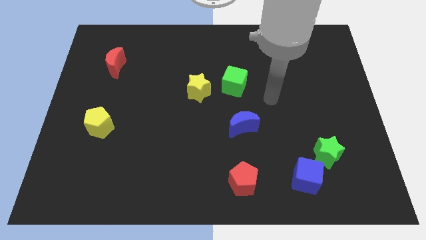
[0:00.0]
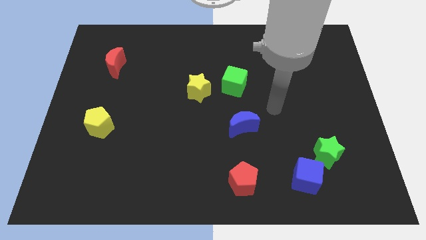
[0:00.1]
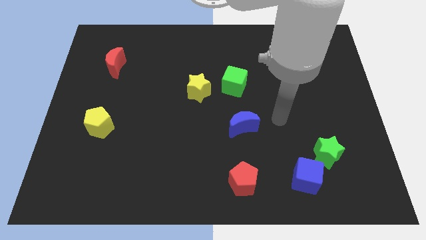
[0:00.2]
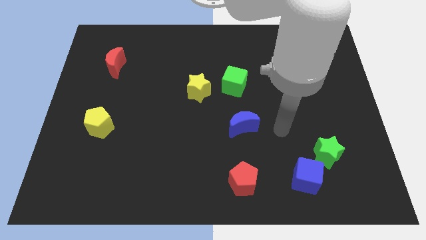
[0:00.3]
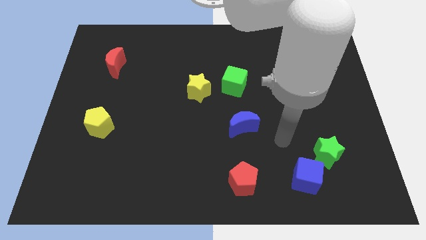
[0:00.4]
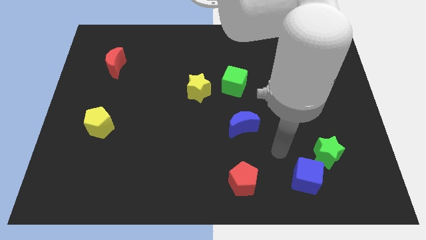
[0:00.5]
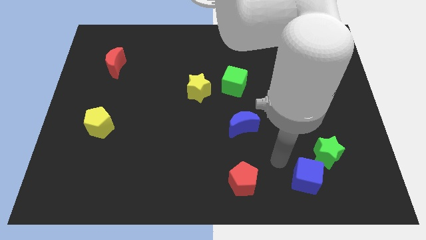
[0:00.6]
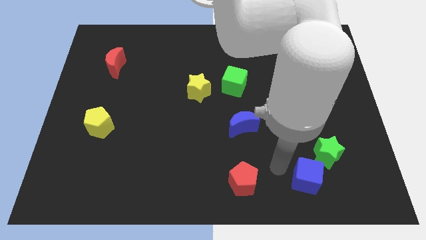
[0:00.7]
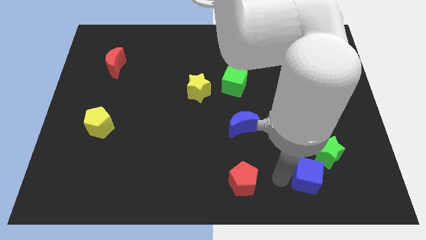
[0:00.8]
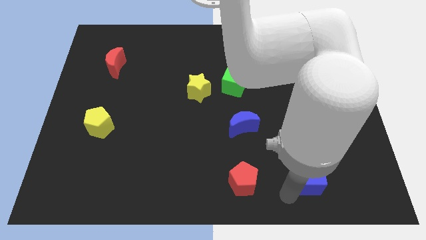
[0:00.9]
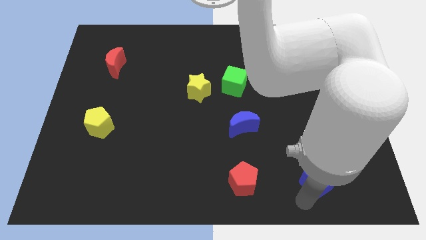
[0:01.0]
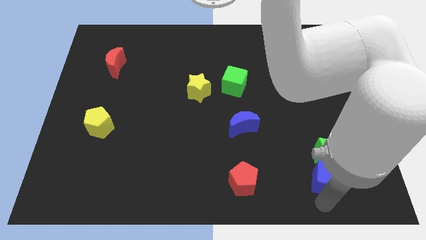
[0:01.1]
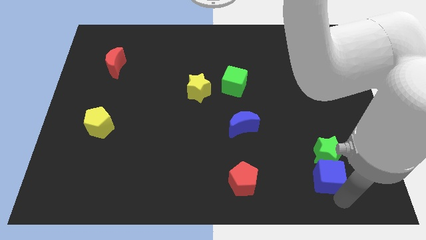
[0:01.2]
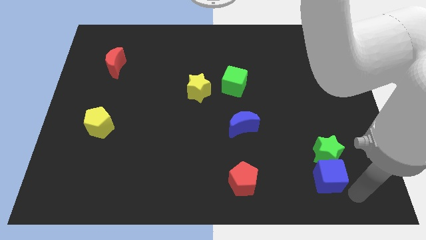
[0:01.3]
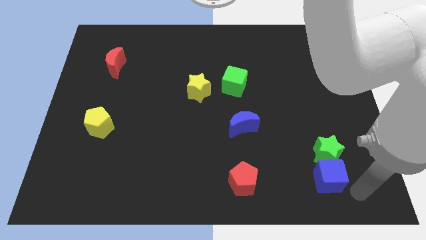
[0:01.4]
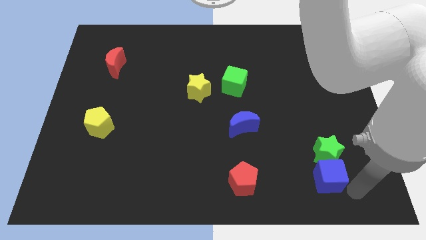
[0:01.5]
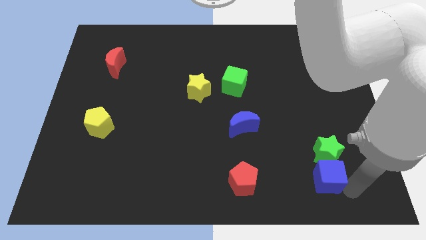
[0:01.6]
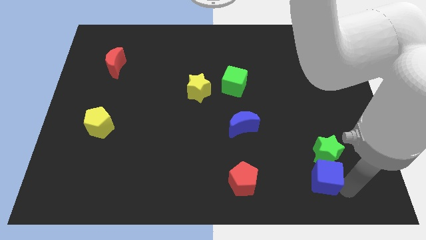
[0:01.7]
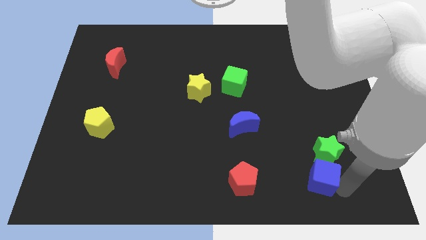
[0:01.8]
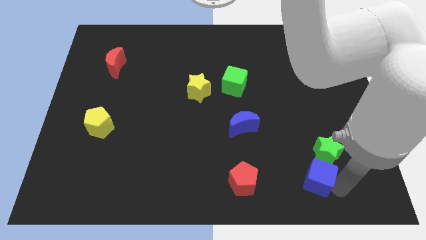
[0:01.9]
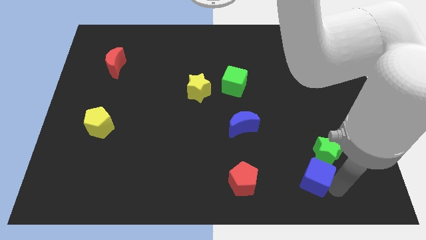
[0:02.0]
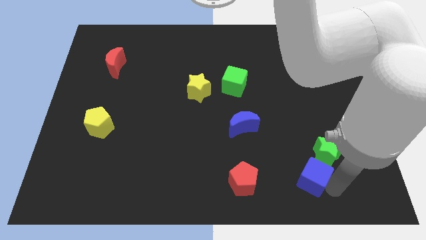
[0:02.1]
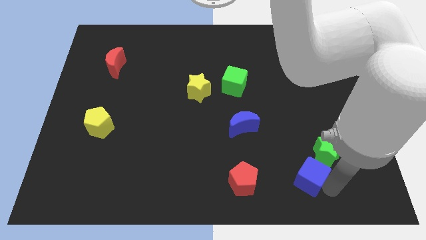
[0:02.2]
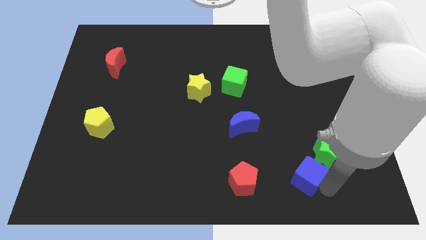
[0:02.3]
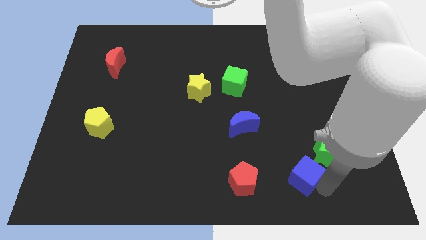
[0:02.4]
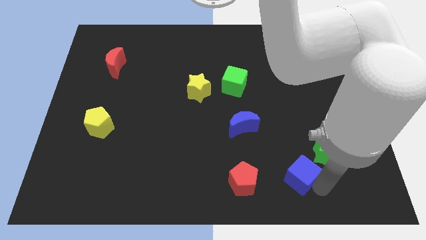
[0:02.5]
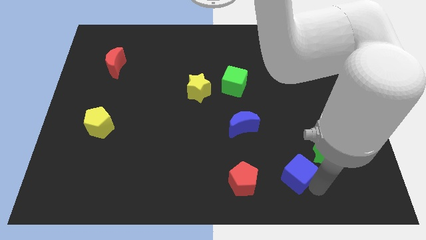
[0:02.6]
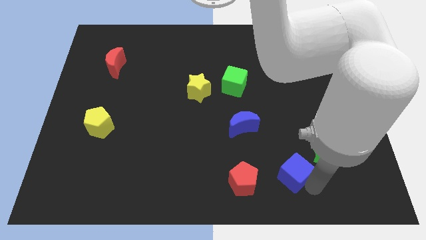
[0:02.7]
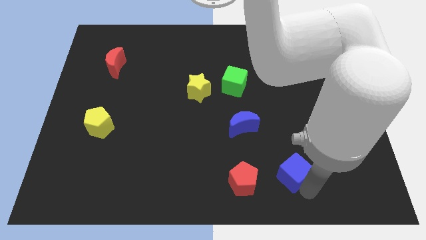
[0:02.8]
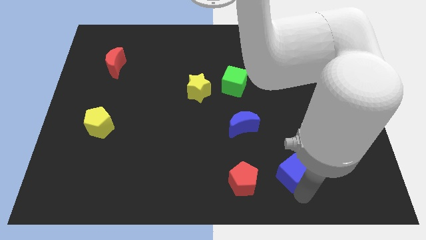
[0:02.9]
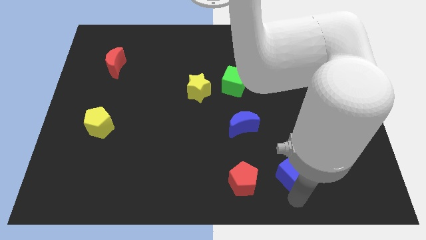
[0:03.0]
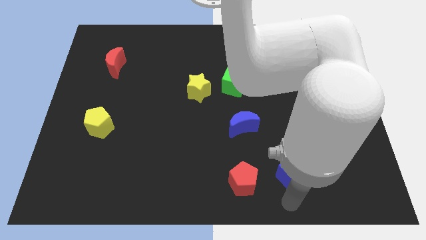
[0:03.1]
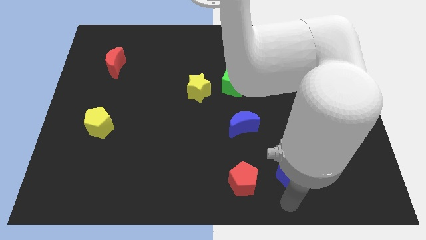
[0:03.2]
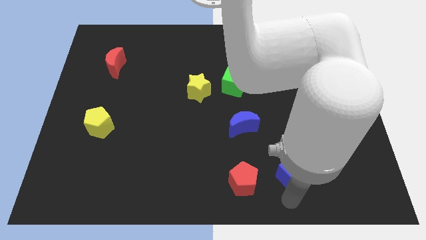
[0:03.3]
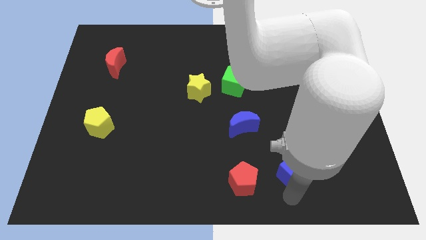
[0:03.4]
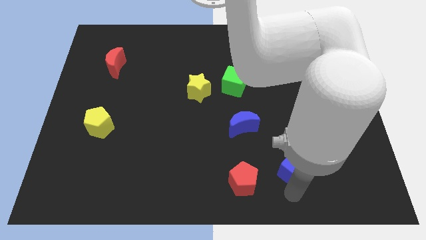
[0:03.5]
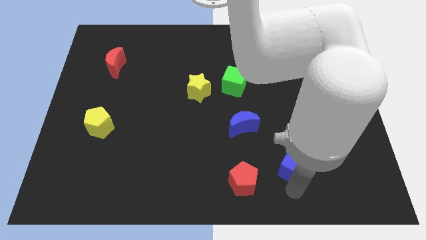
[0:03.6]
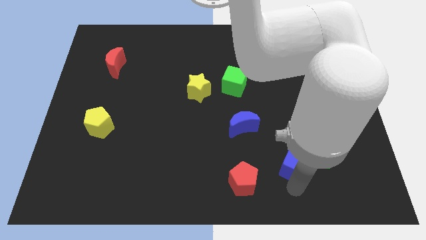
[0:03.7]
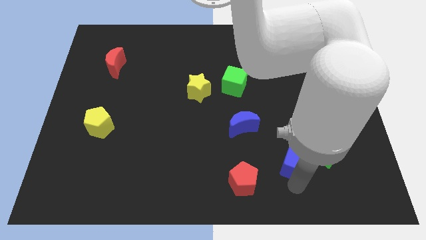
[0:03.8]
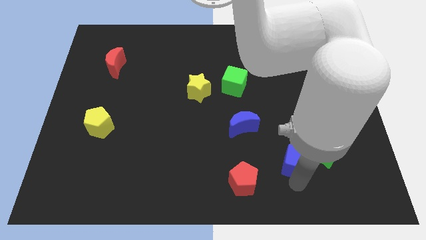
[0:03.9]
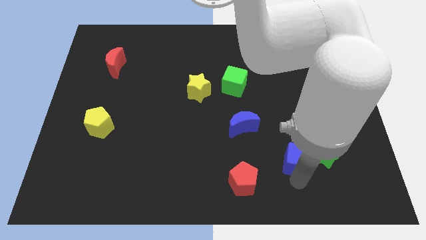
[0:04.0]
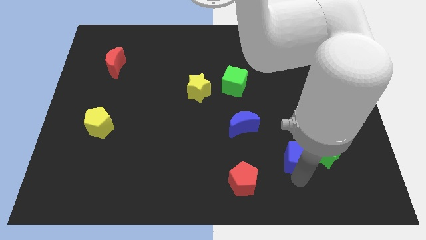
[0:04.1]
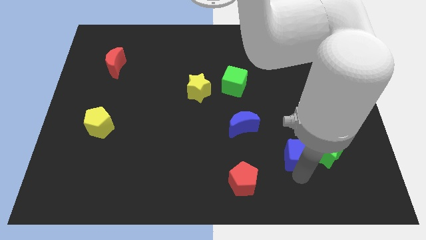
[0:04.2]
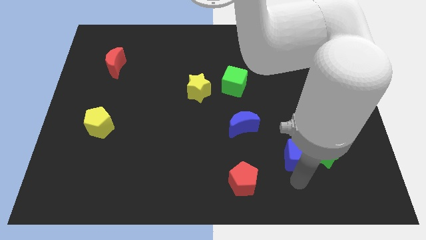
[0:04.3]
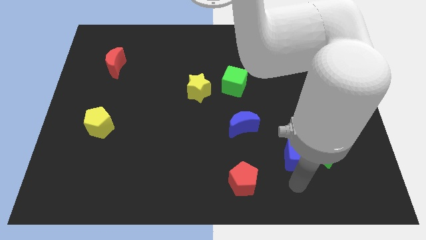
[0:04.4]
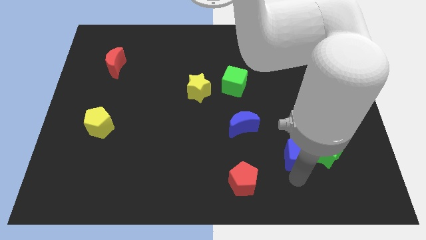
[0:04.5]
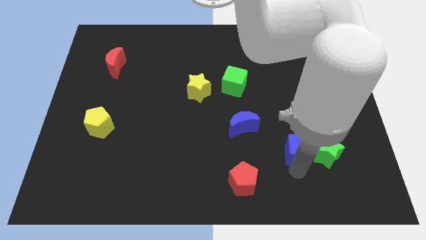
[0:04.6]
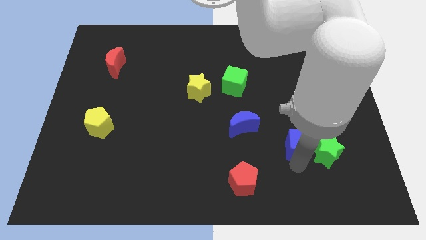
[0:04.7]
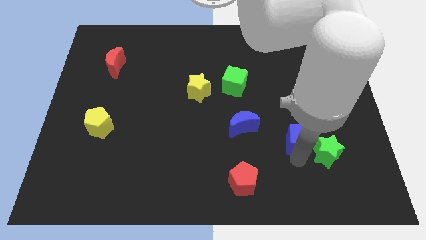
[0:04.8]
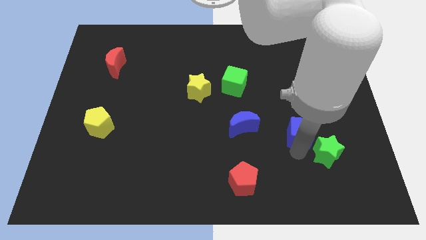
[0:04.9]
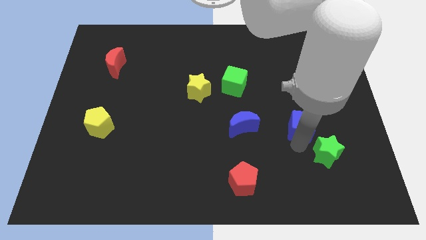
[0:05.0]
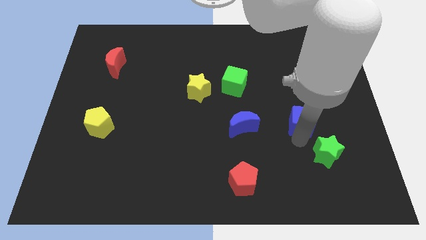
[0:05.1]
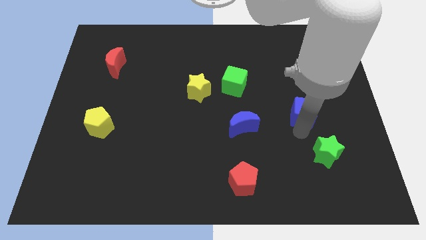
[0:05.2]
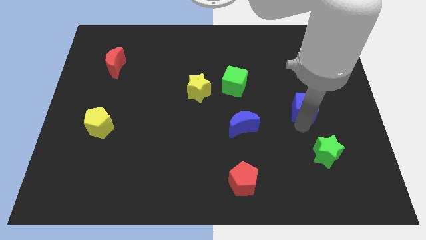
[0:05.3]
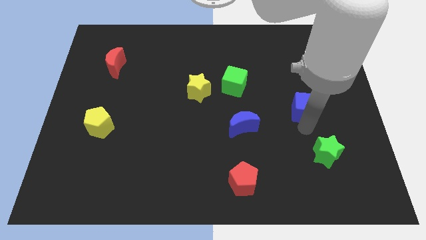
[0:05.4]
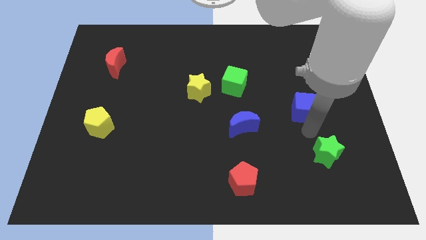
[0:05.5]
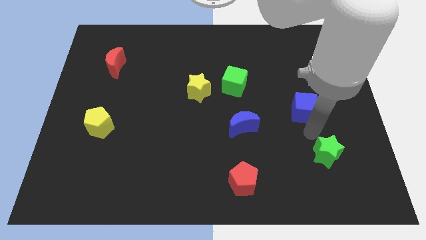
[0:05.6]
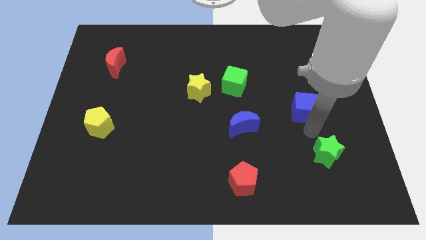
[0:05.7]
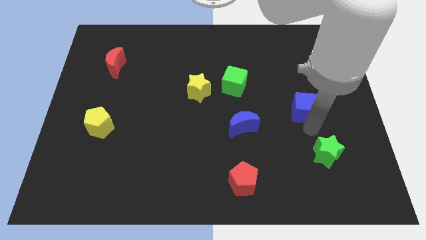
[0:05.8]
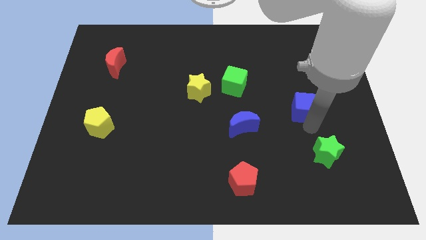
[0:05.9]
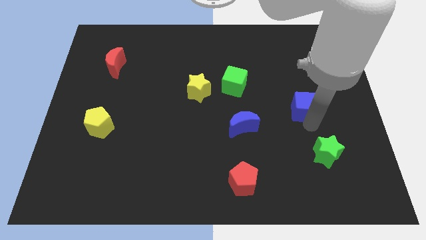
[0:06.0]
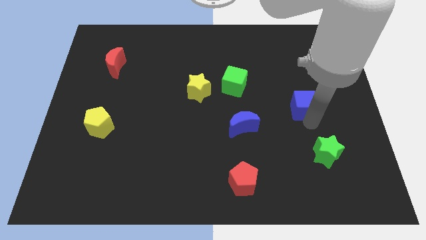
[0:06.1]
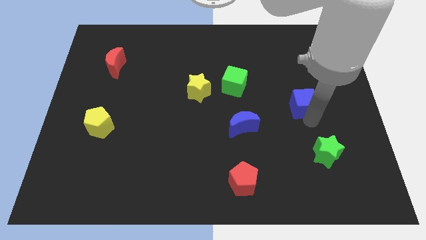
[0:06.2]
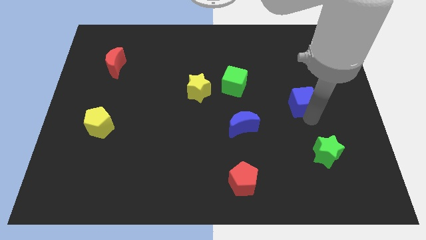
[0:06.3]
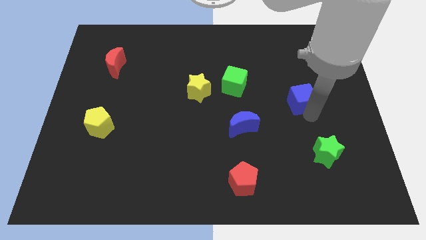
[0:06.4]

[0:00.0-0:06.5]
push the blue cube up

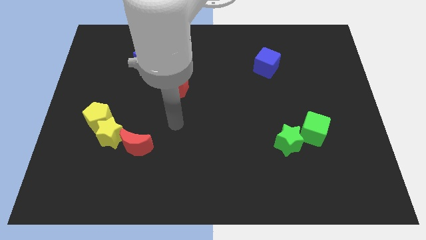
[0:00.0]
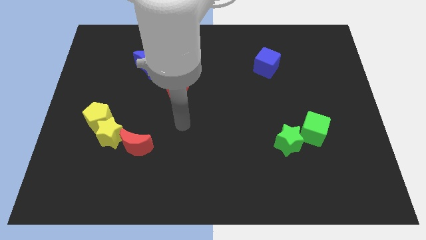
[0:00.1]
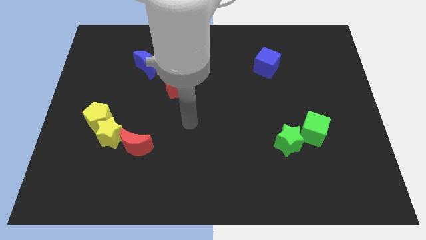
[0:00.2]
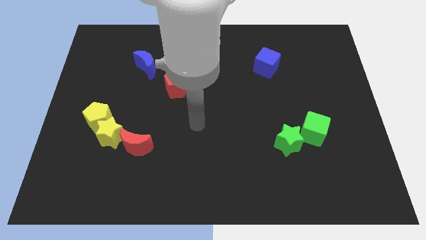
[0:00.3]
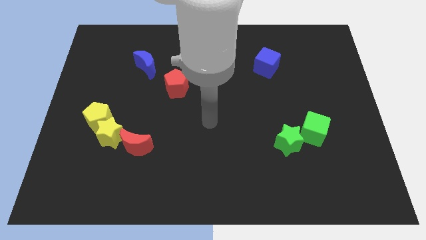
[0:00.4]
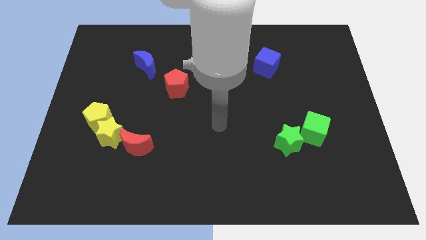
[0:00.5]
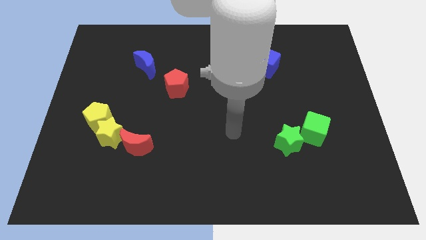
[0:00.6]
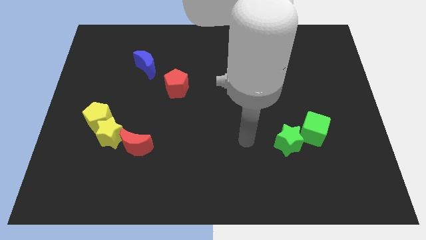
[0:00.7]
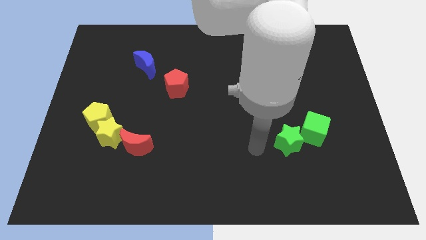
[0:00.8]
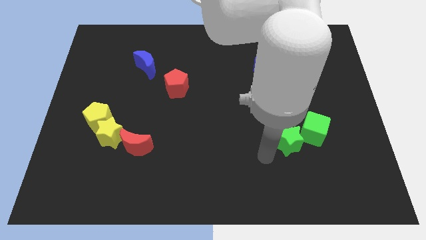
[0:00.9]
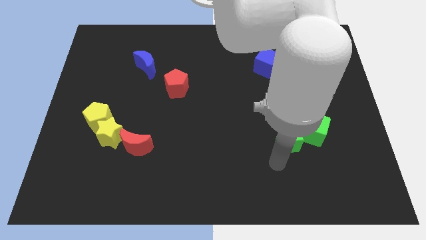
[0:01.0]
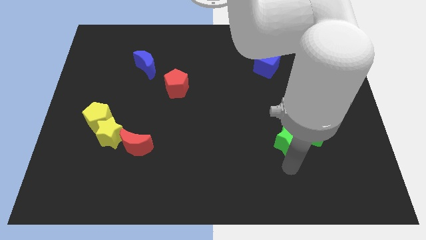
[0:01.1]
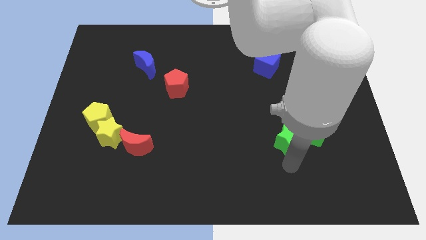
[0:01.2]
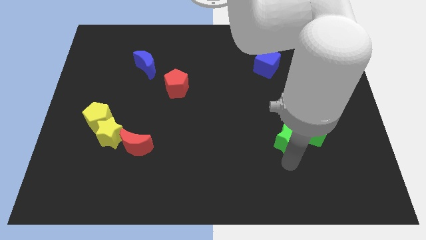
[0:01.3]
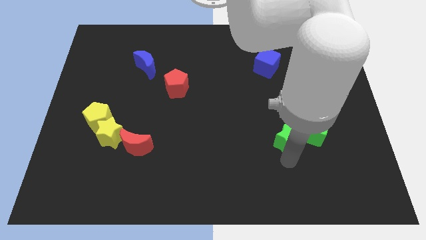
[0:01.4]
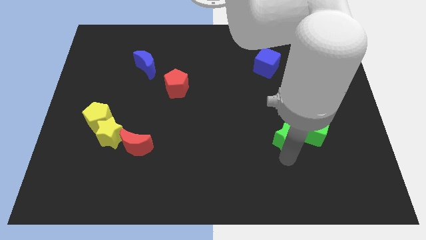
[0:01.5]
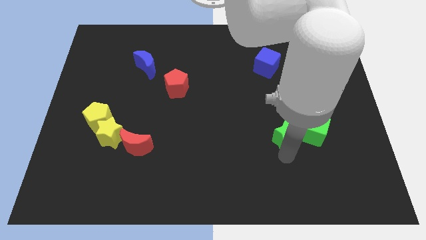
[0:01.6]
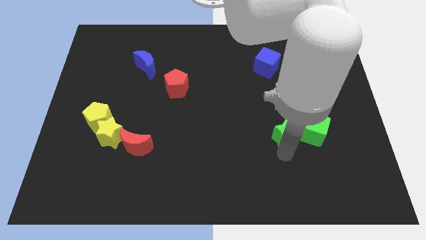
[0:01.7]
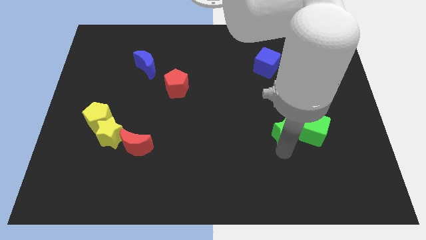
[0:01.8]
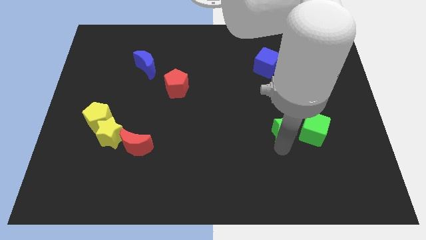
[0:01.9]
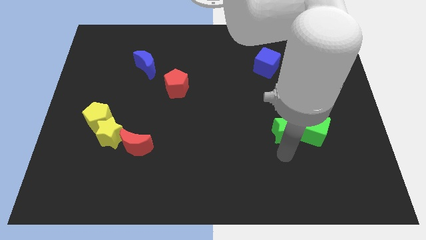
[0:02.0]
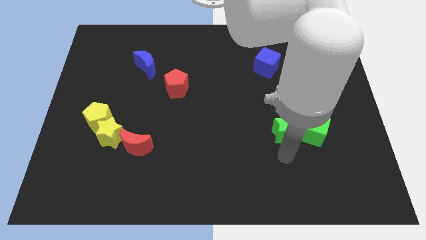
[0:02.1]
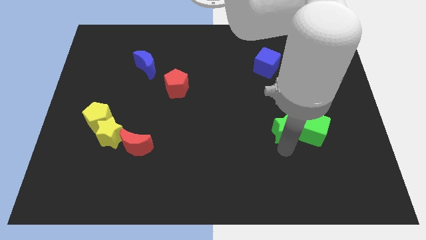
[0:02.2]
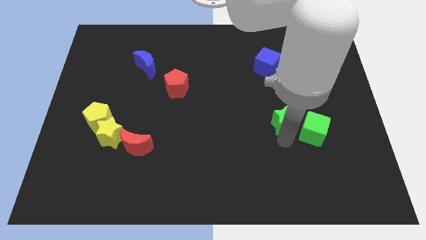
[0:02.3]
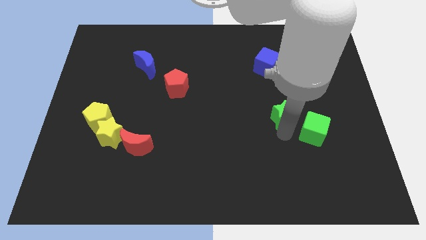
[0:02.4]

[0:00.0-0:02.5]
slide the green star somewhat upwards
